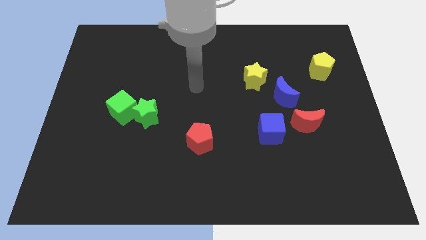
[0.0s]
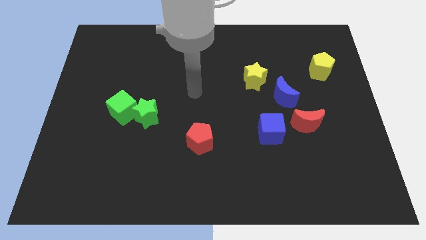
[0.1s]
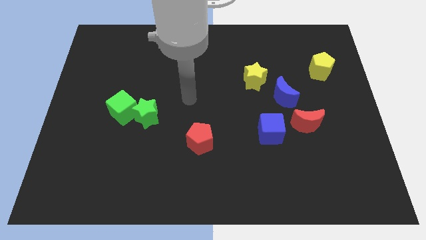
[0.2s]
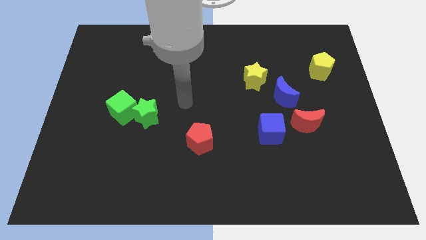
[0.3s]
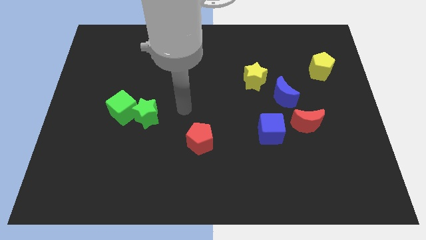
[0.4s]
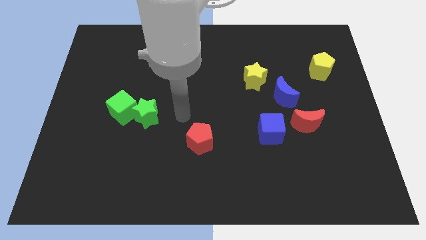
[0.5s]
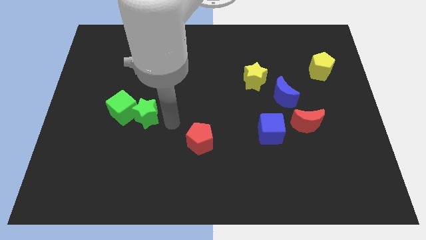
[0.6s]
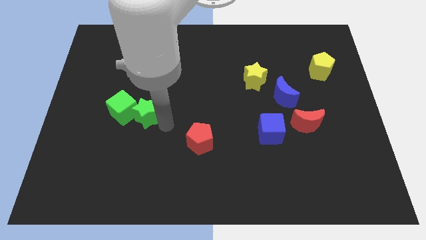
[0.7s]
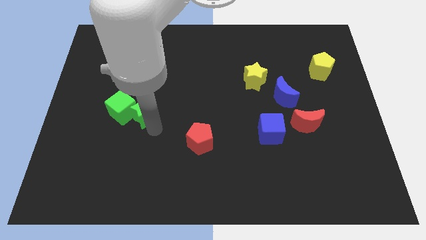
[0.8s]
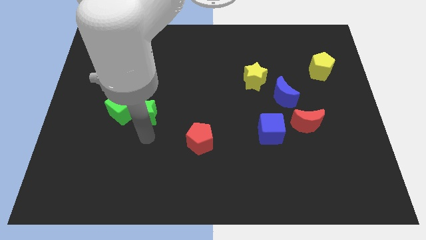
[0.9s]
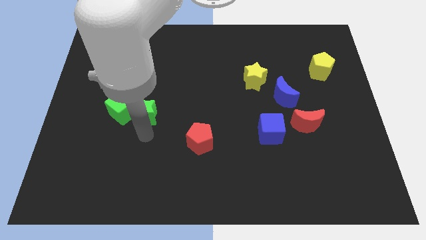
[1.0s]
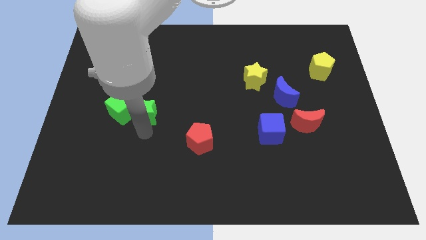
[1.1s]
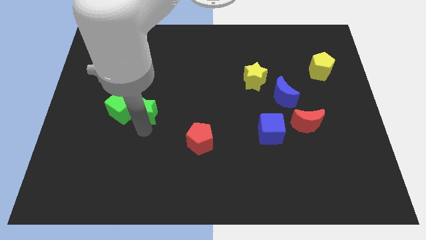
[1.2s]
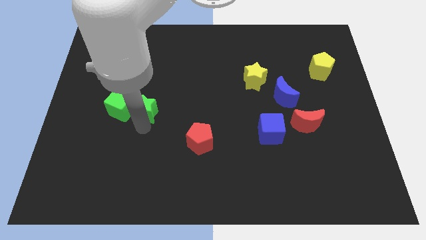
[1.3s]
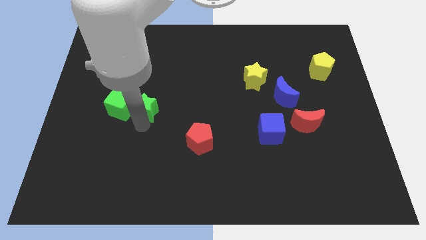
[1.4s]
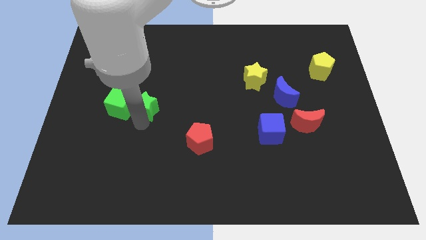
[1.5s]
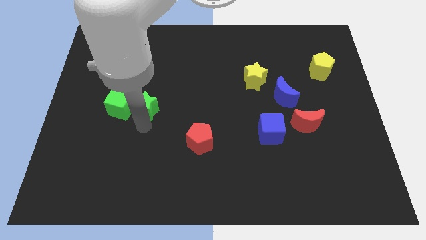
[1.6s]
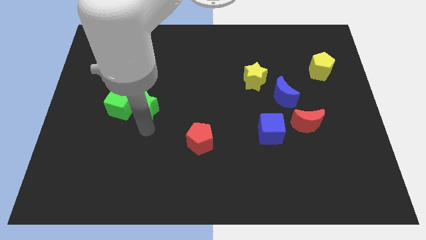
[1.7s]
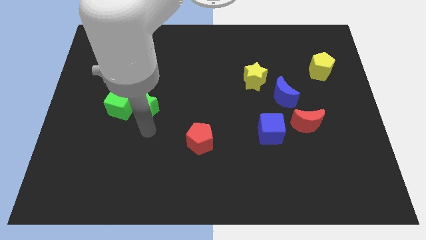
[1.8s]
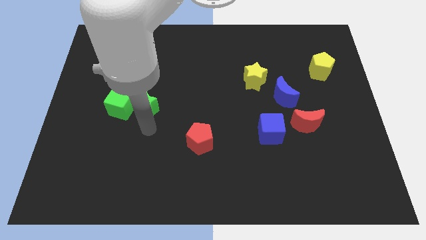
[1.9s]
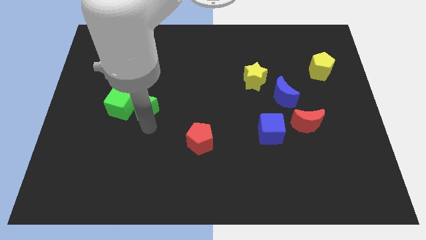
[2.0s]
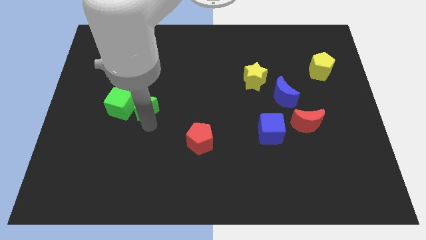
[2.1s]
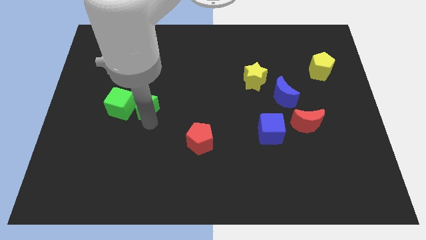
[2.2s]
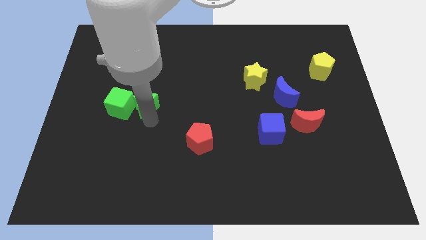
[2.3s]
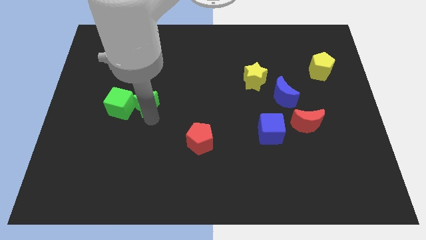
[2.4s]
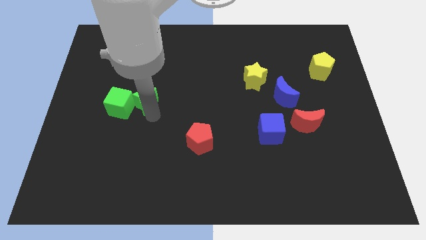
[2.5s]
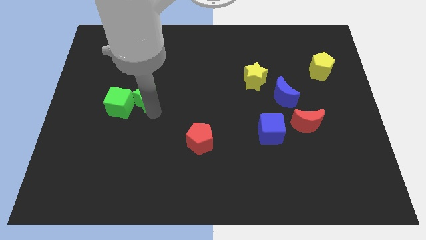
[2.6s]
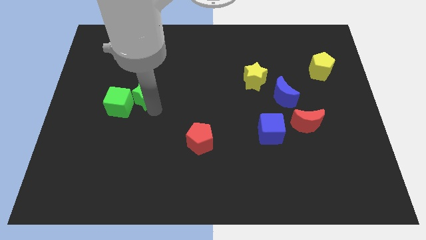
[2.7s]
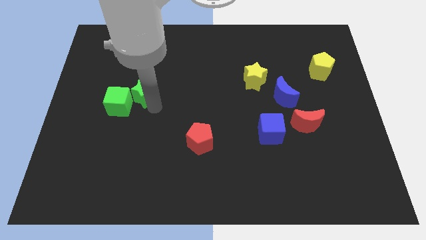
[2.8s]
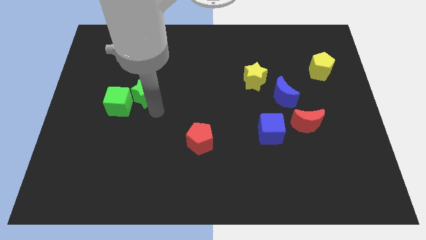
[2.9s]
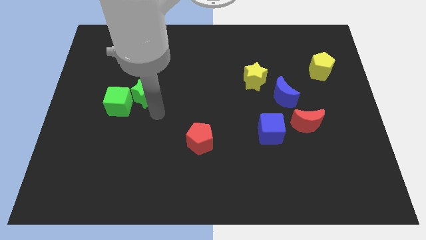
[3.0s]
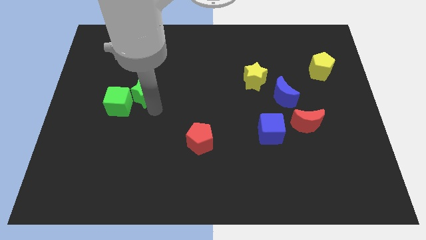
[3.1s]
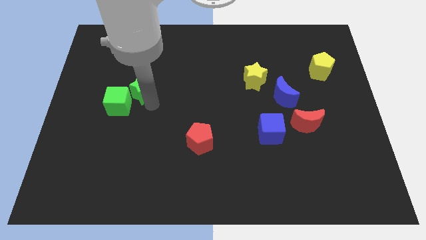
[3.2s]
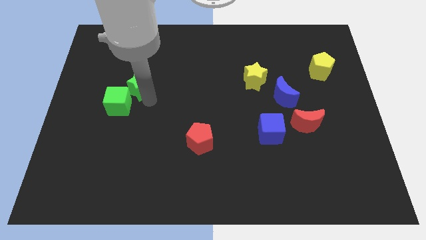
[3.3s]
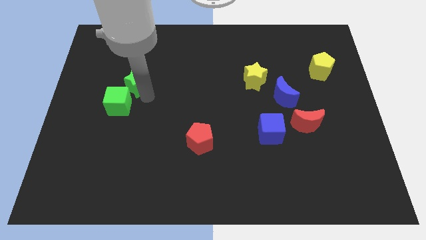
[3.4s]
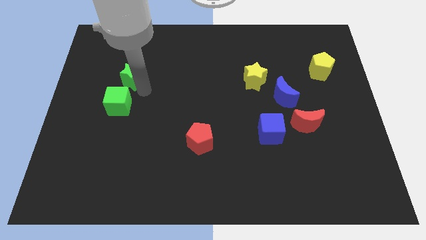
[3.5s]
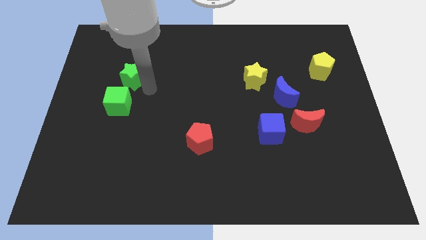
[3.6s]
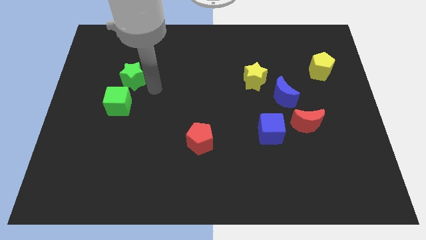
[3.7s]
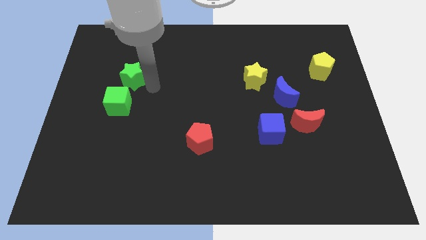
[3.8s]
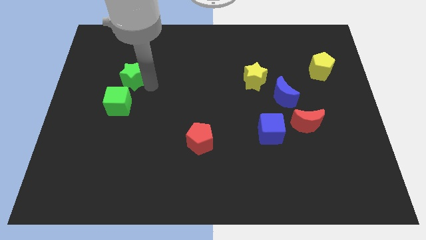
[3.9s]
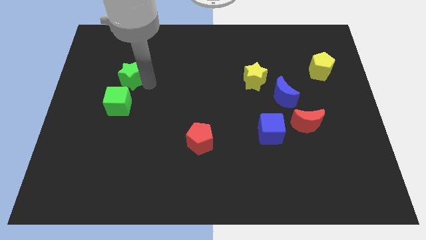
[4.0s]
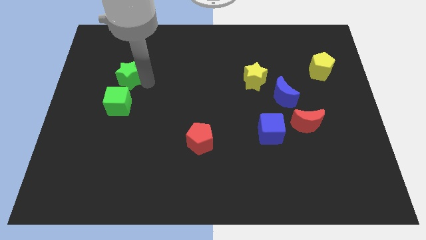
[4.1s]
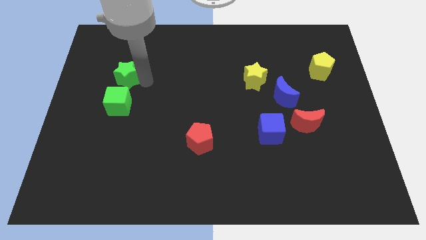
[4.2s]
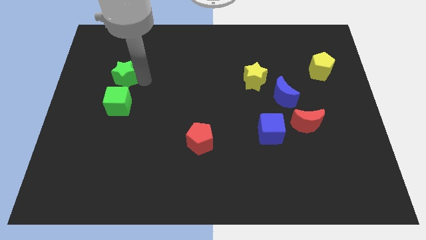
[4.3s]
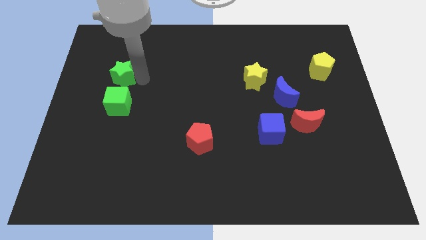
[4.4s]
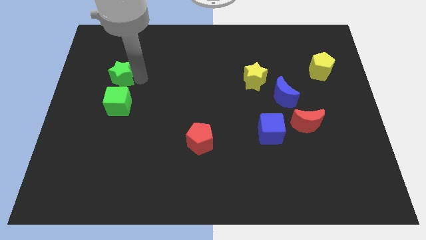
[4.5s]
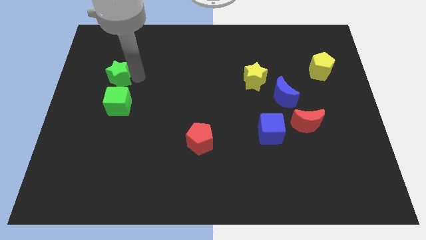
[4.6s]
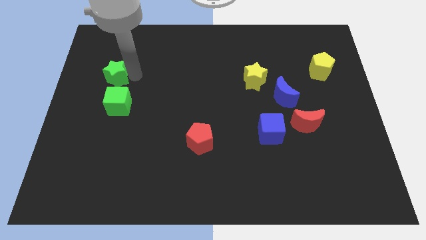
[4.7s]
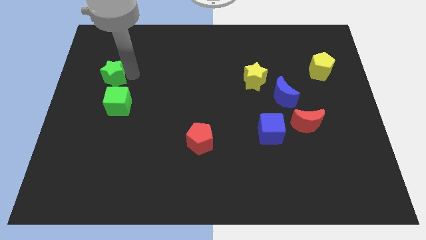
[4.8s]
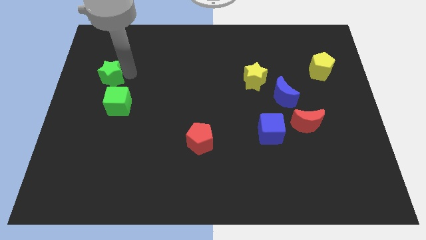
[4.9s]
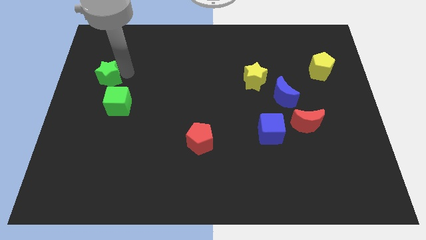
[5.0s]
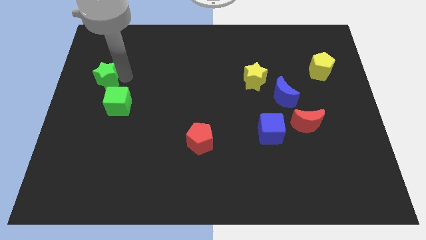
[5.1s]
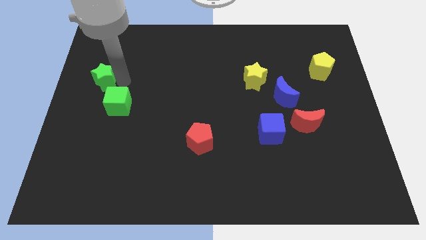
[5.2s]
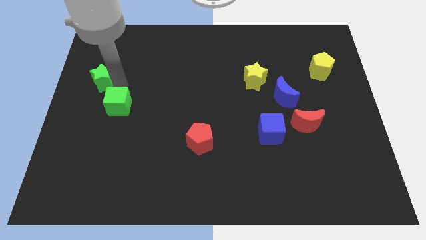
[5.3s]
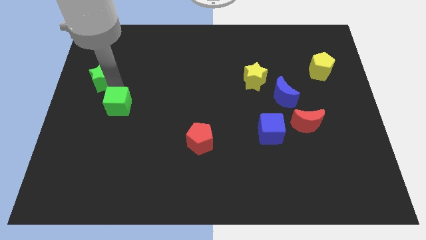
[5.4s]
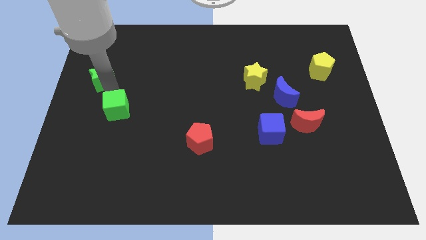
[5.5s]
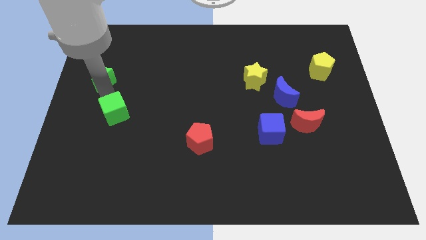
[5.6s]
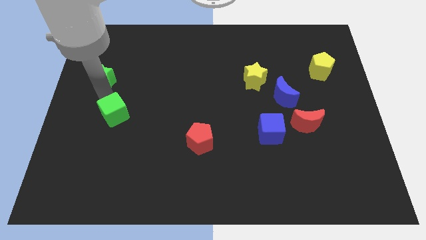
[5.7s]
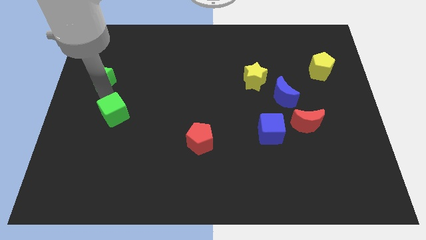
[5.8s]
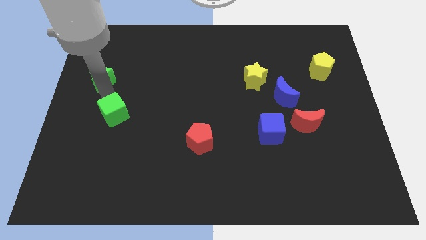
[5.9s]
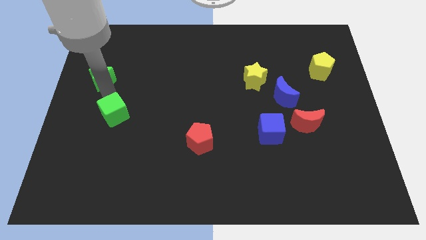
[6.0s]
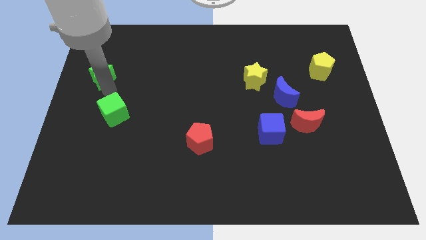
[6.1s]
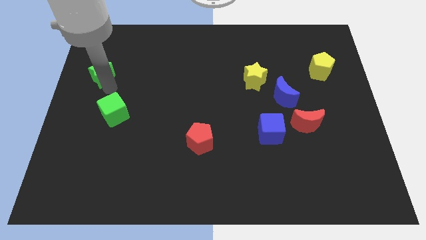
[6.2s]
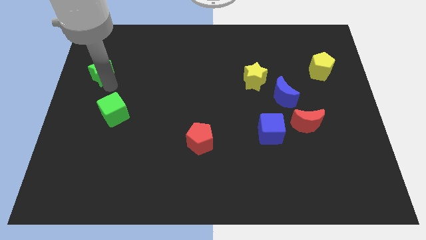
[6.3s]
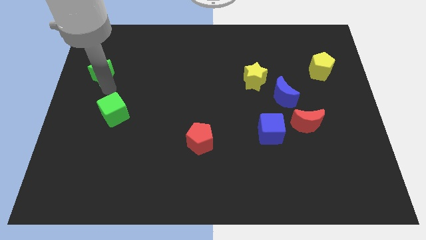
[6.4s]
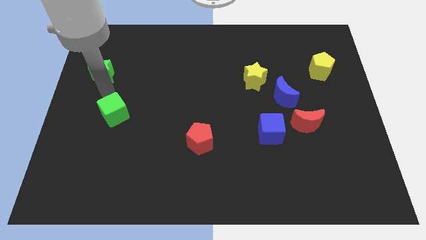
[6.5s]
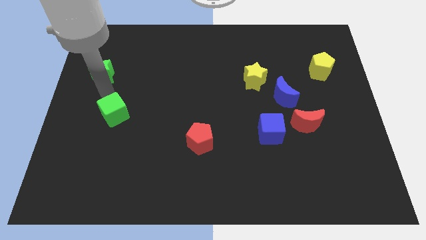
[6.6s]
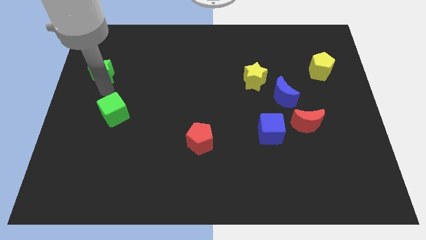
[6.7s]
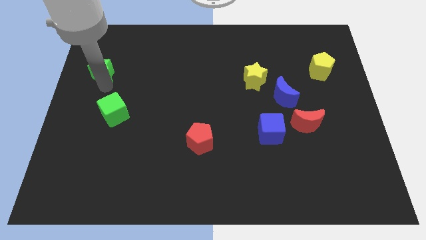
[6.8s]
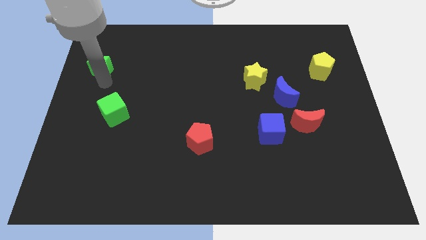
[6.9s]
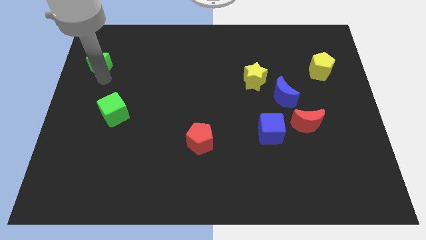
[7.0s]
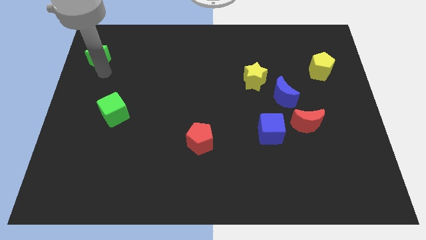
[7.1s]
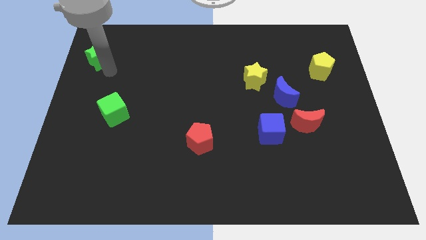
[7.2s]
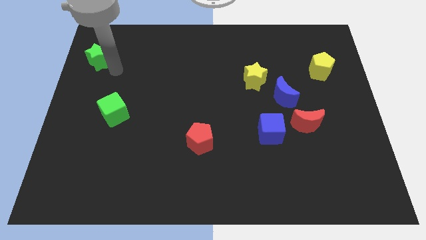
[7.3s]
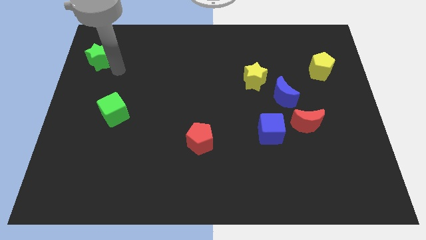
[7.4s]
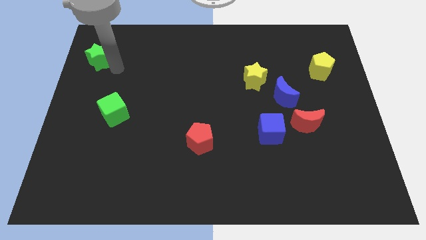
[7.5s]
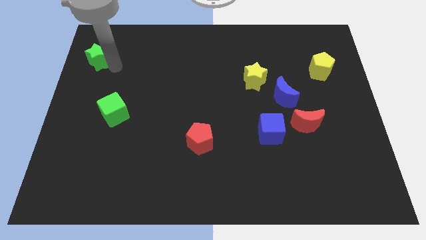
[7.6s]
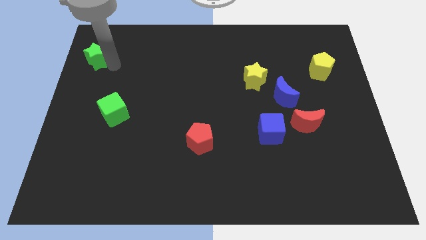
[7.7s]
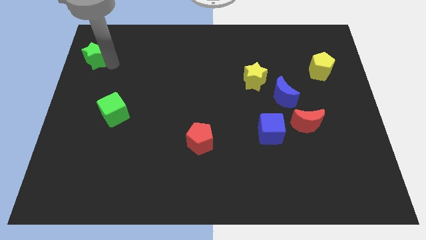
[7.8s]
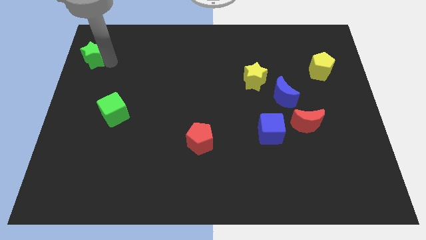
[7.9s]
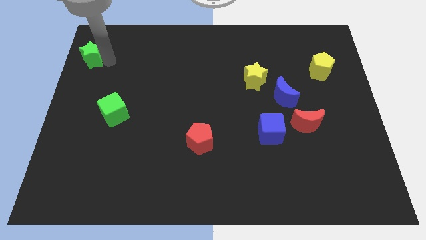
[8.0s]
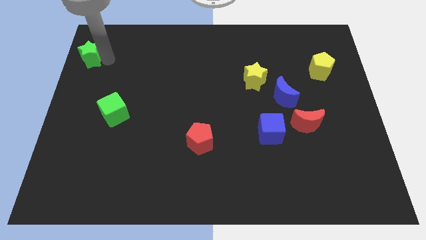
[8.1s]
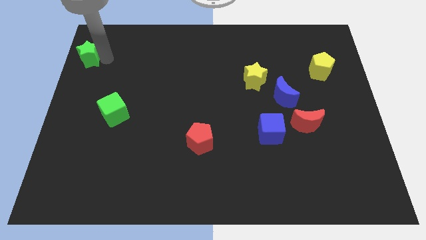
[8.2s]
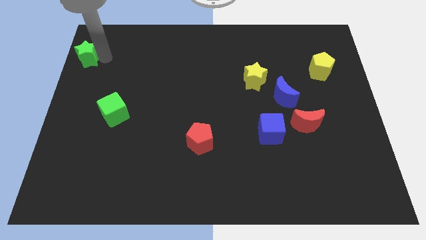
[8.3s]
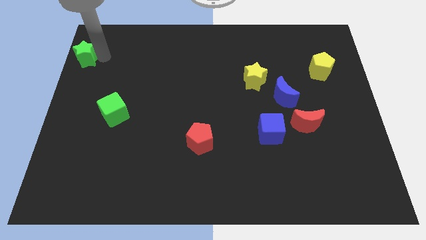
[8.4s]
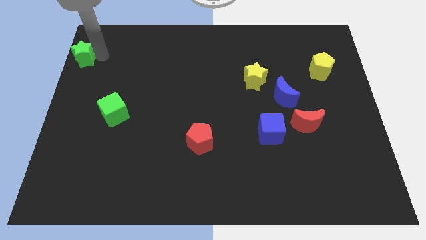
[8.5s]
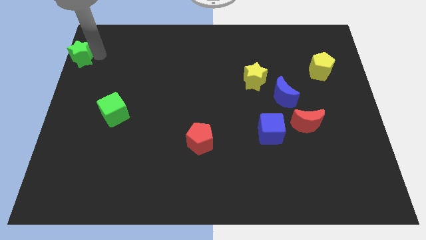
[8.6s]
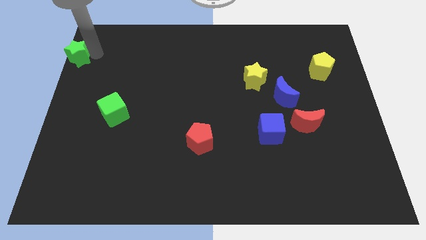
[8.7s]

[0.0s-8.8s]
put the green star to the top left corner
